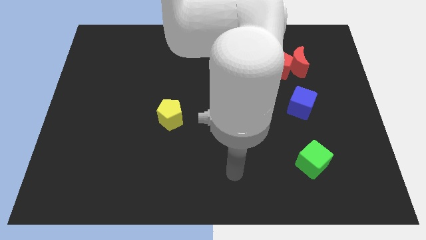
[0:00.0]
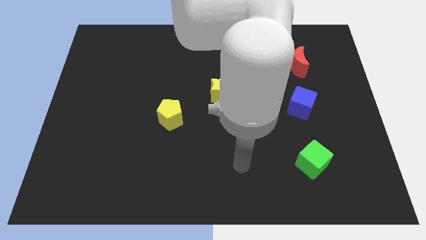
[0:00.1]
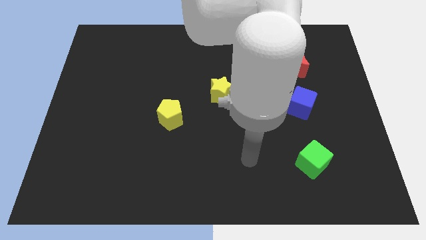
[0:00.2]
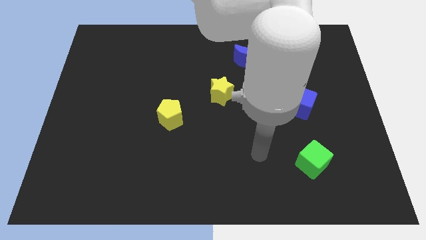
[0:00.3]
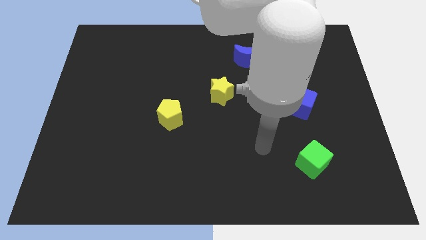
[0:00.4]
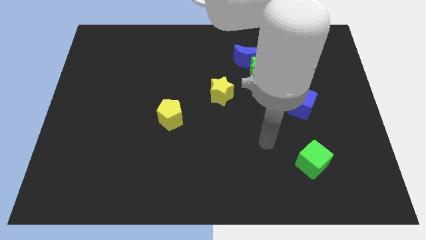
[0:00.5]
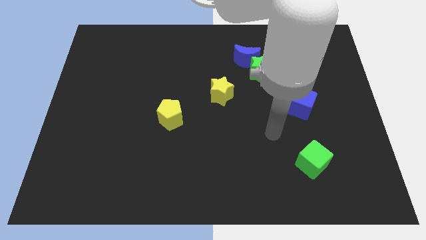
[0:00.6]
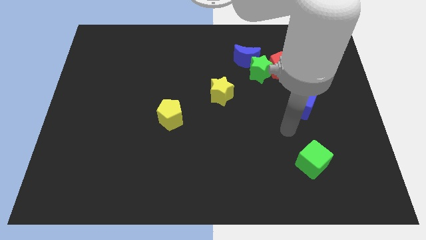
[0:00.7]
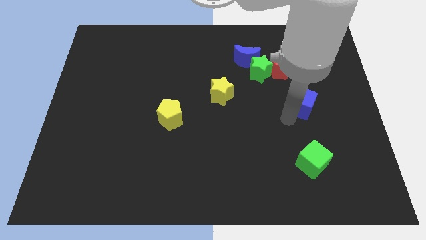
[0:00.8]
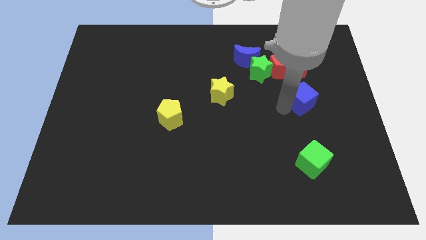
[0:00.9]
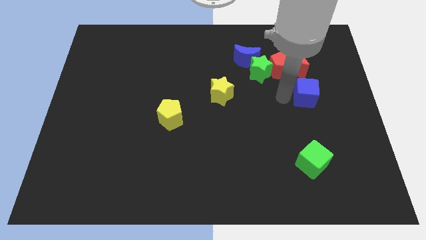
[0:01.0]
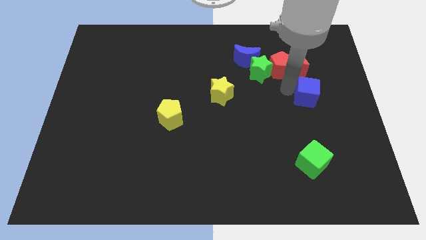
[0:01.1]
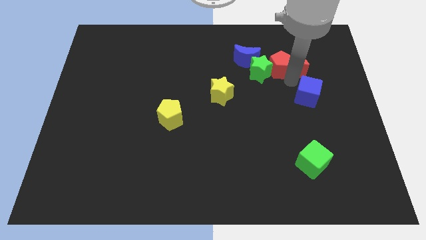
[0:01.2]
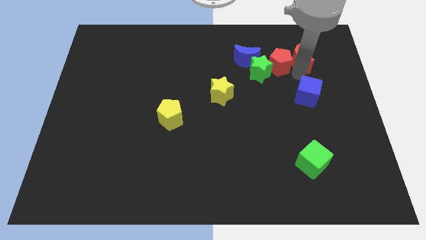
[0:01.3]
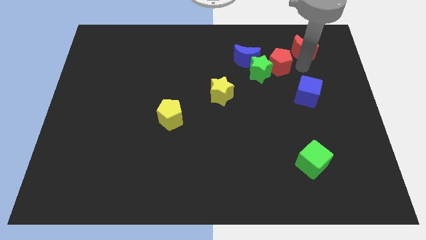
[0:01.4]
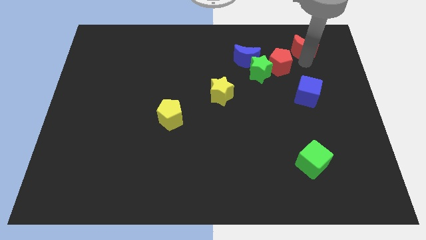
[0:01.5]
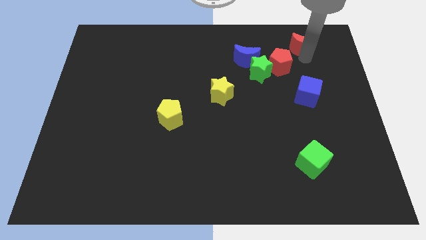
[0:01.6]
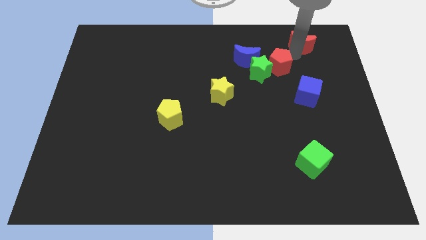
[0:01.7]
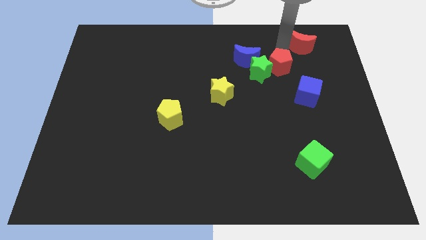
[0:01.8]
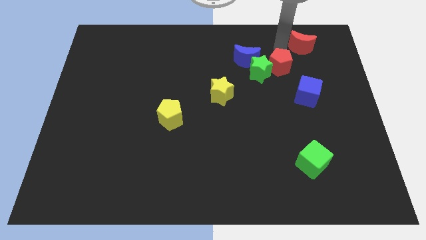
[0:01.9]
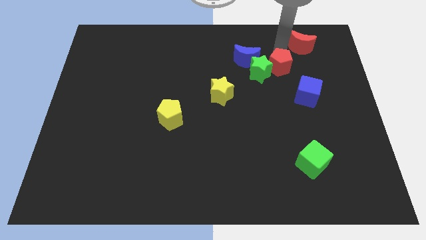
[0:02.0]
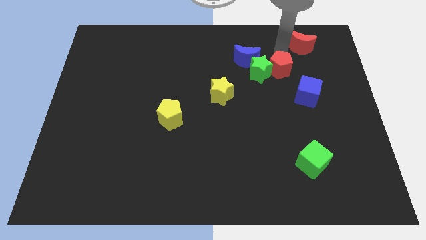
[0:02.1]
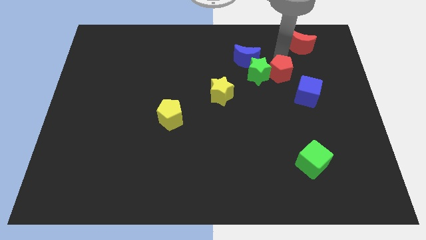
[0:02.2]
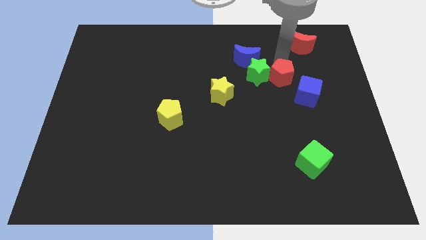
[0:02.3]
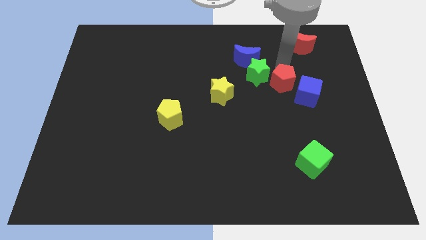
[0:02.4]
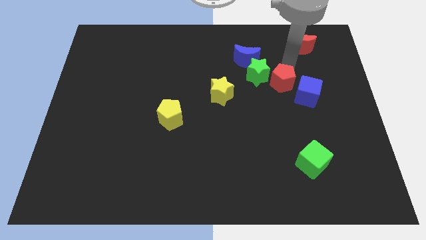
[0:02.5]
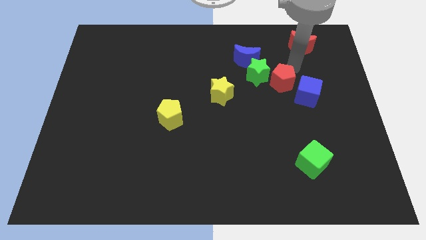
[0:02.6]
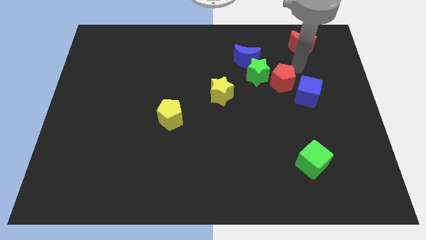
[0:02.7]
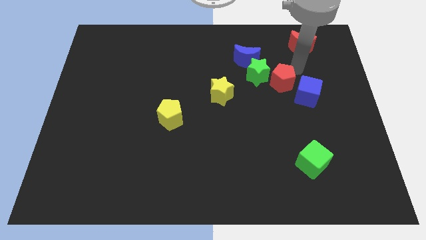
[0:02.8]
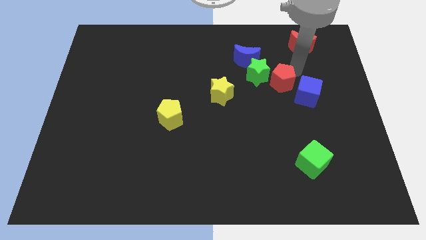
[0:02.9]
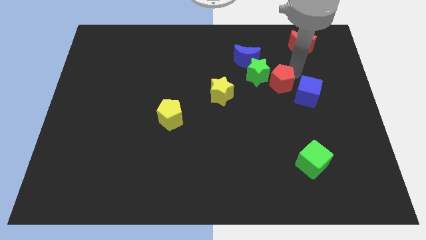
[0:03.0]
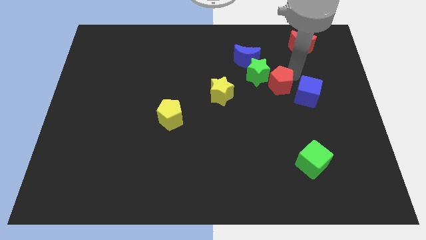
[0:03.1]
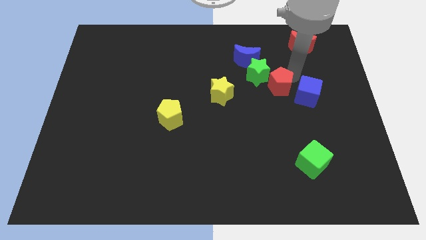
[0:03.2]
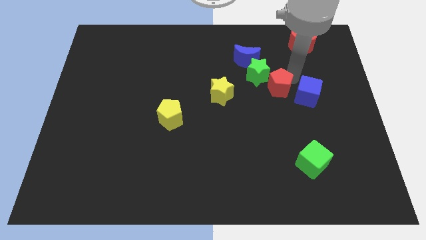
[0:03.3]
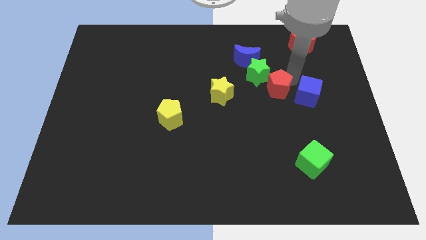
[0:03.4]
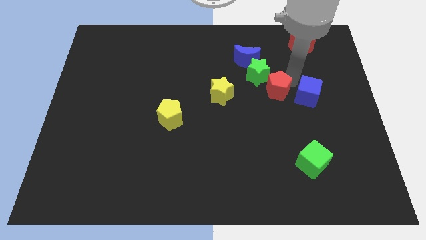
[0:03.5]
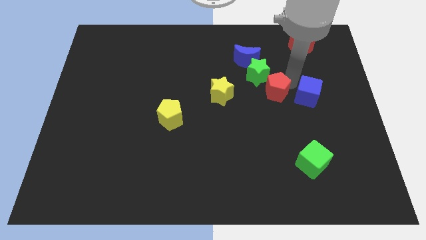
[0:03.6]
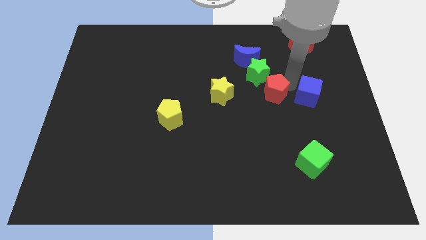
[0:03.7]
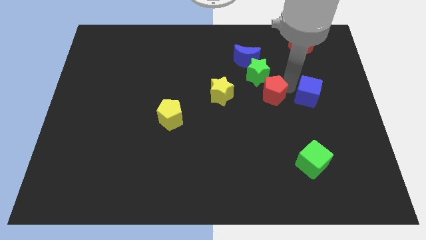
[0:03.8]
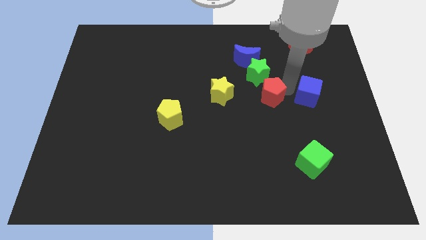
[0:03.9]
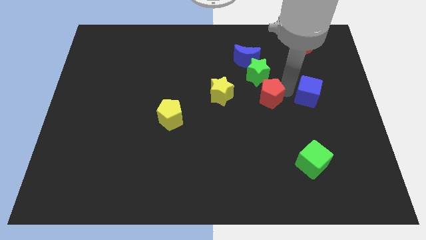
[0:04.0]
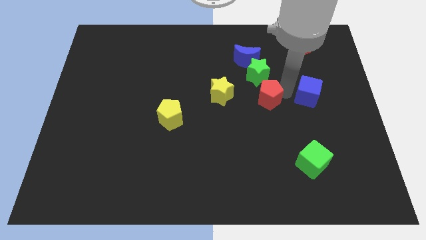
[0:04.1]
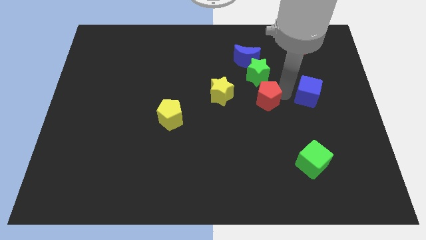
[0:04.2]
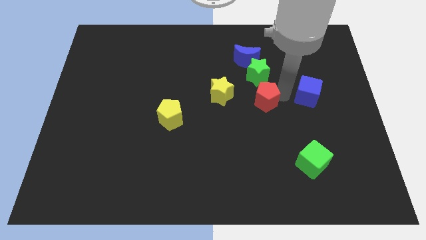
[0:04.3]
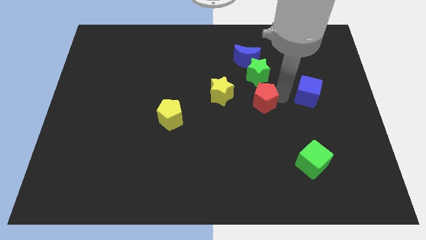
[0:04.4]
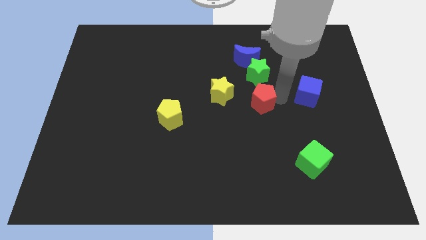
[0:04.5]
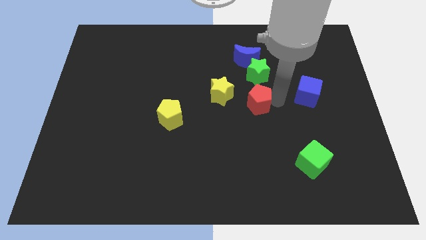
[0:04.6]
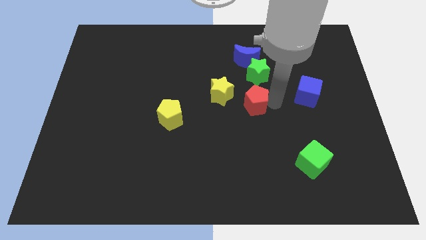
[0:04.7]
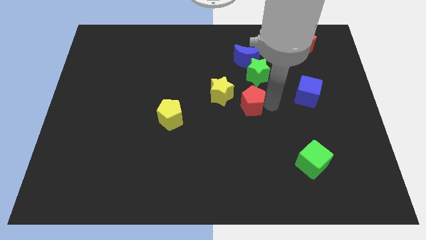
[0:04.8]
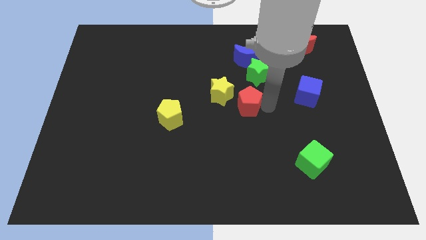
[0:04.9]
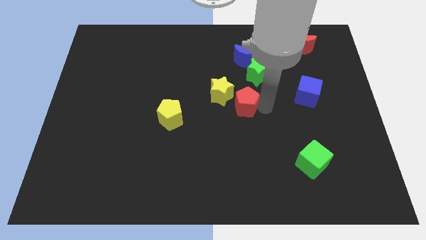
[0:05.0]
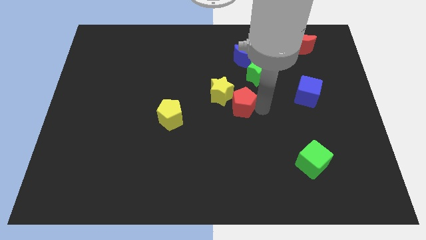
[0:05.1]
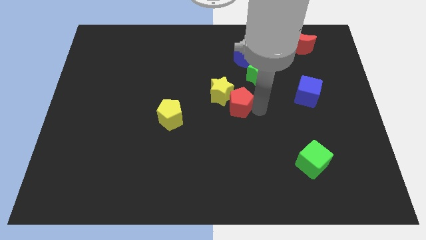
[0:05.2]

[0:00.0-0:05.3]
slide the red pentagon close to the yellow star

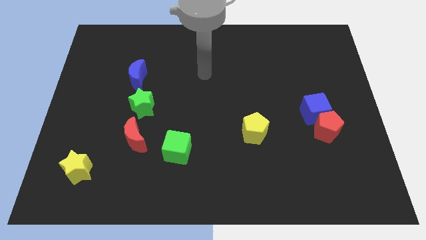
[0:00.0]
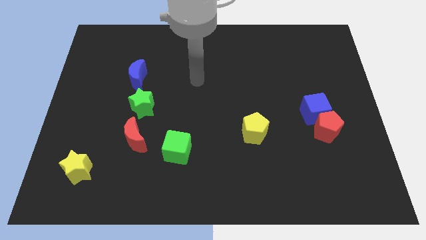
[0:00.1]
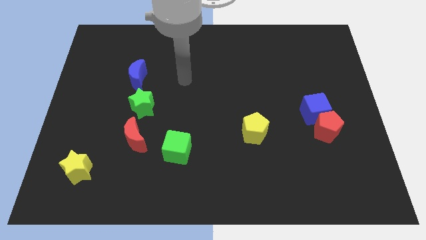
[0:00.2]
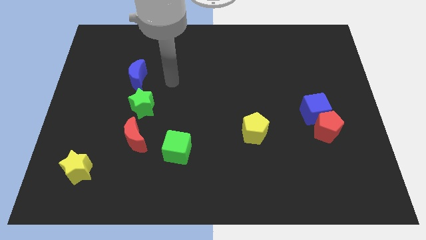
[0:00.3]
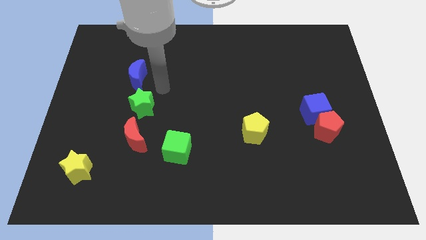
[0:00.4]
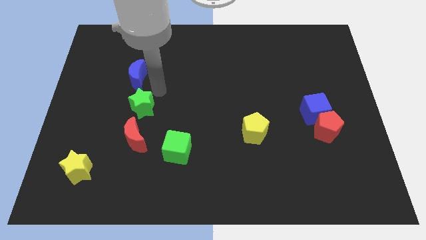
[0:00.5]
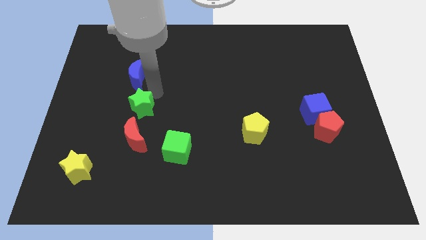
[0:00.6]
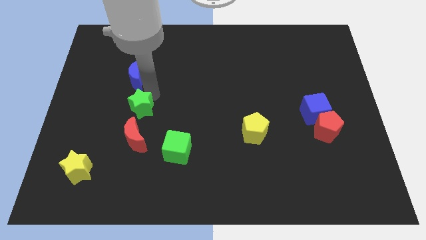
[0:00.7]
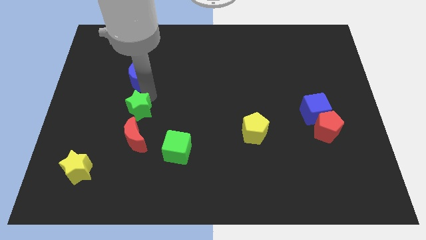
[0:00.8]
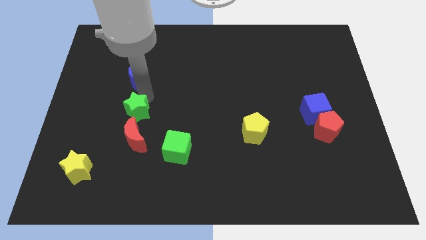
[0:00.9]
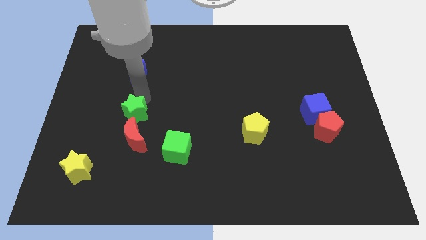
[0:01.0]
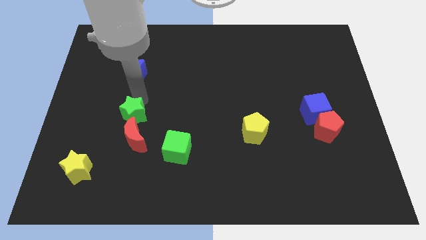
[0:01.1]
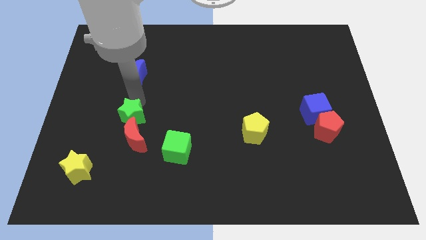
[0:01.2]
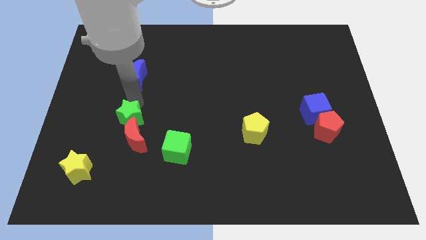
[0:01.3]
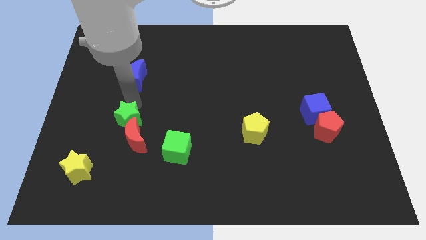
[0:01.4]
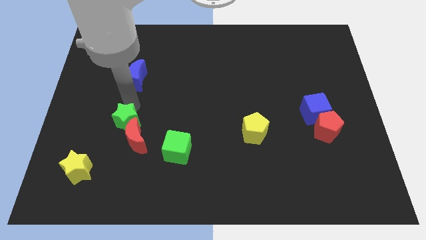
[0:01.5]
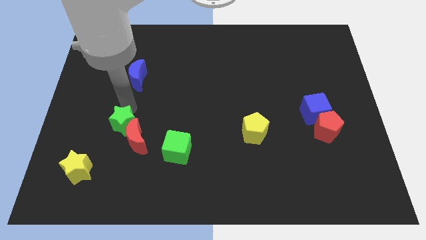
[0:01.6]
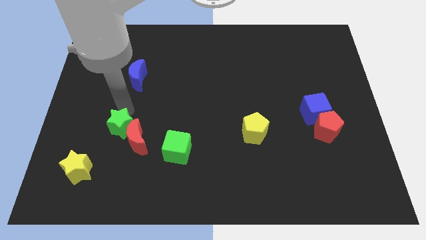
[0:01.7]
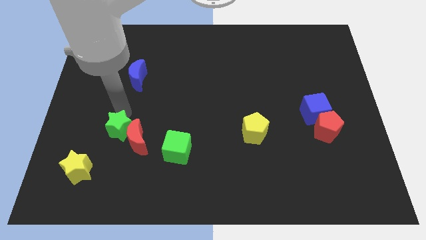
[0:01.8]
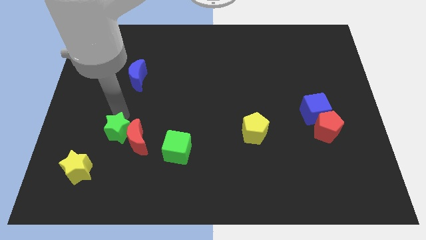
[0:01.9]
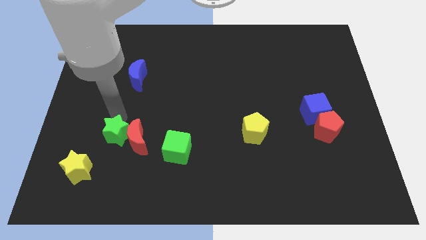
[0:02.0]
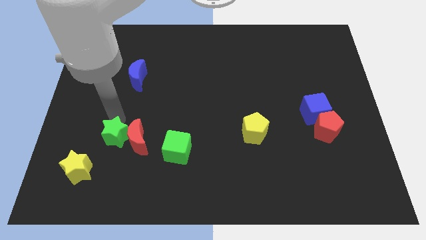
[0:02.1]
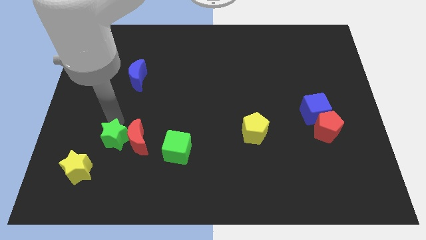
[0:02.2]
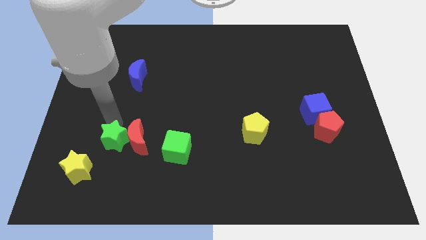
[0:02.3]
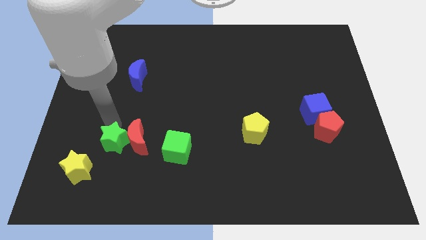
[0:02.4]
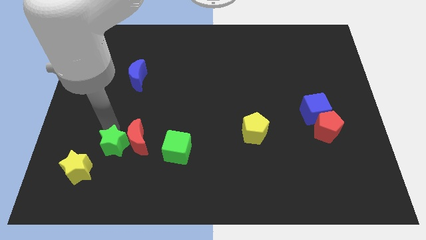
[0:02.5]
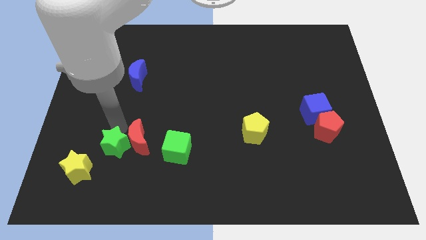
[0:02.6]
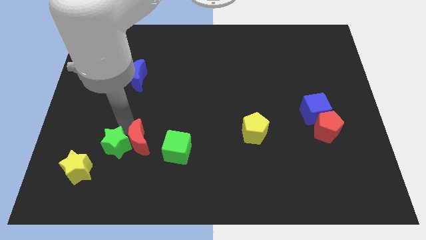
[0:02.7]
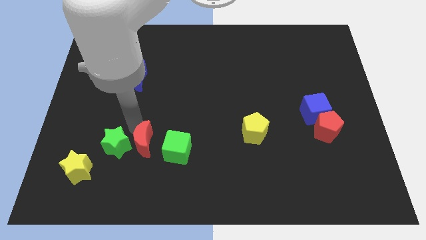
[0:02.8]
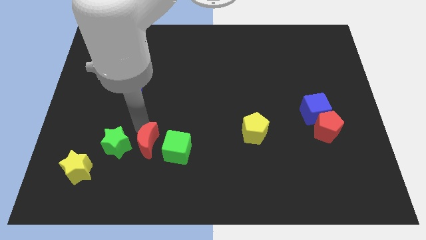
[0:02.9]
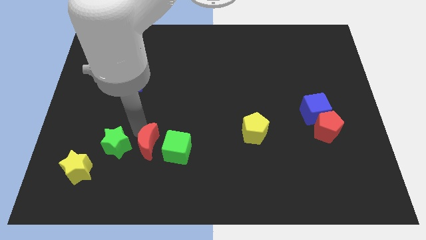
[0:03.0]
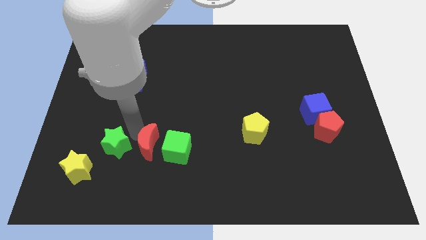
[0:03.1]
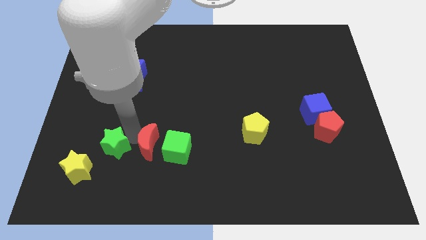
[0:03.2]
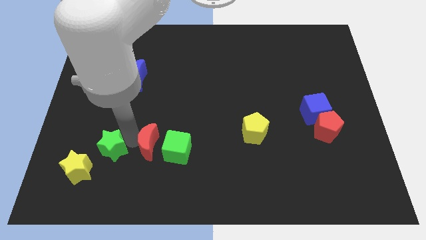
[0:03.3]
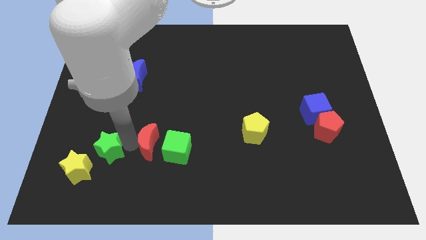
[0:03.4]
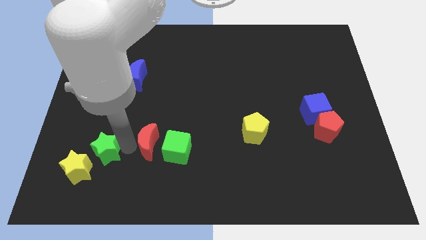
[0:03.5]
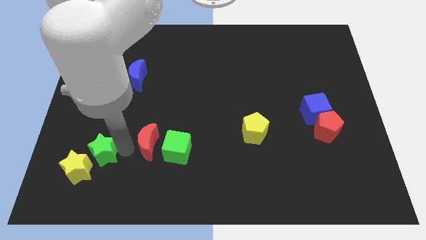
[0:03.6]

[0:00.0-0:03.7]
push the green star to the yellow star
